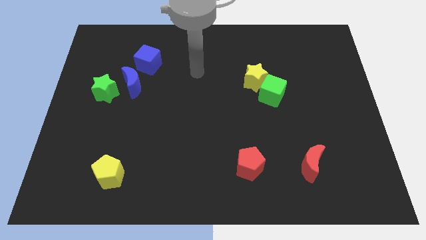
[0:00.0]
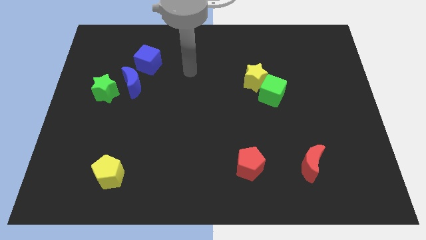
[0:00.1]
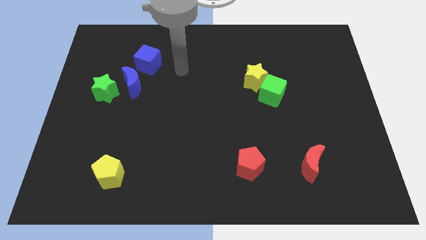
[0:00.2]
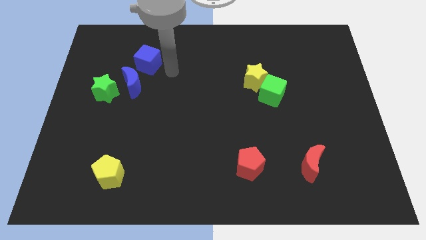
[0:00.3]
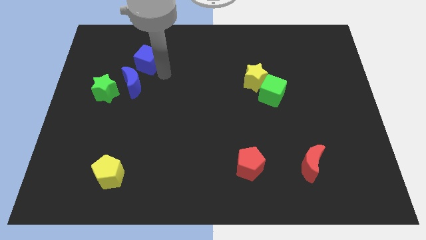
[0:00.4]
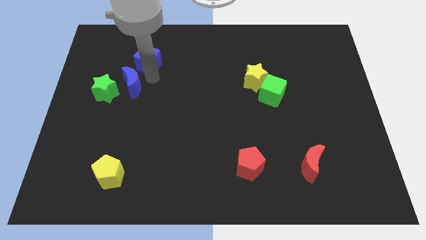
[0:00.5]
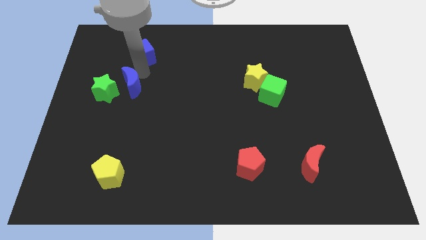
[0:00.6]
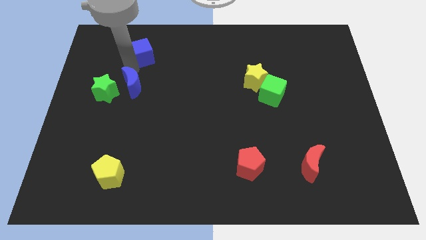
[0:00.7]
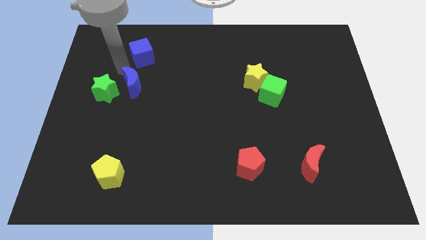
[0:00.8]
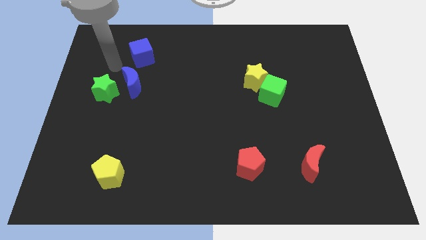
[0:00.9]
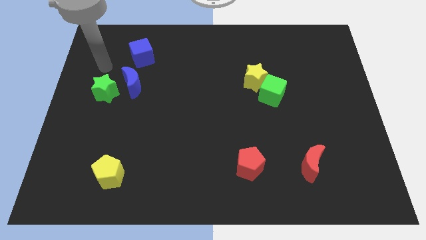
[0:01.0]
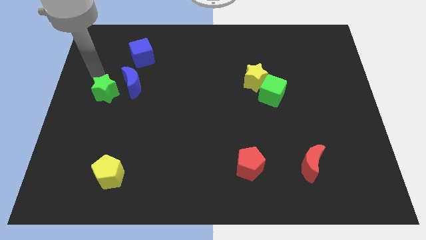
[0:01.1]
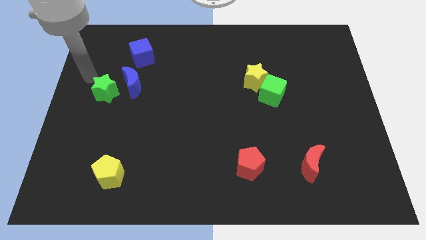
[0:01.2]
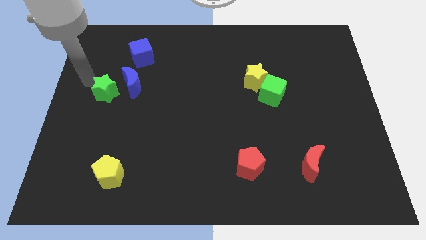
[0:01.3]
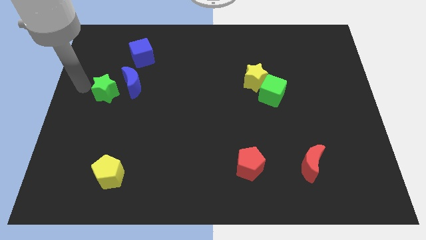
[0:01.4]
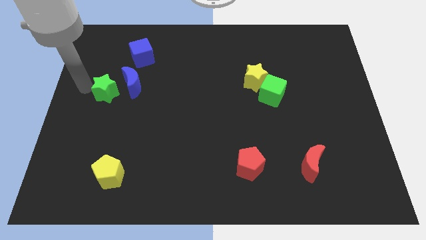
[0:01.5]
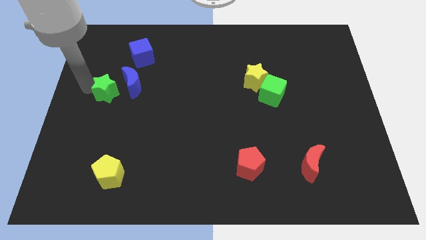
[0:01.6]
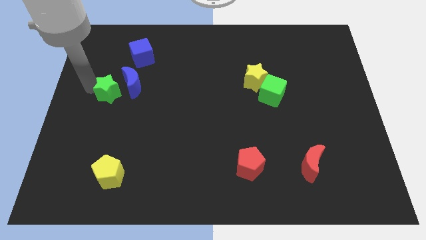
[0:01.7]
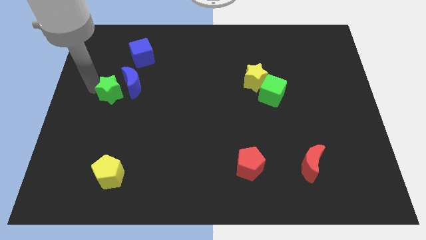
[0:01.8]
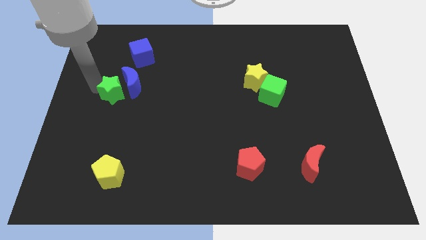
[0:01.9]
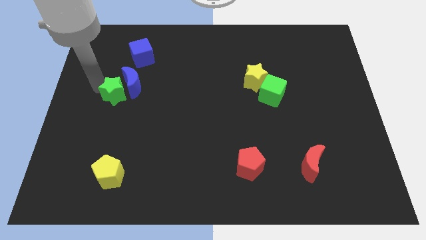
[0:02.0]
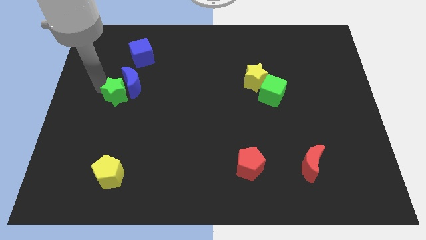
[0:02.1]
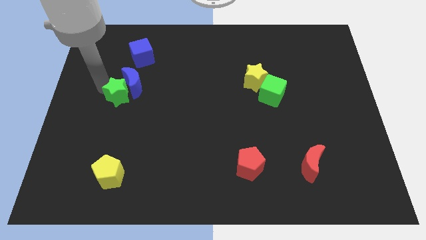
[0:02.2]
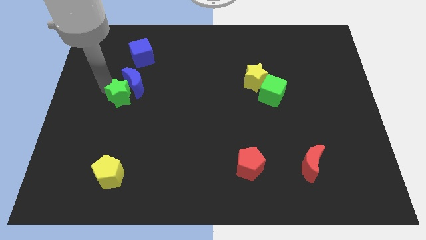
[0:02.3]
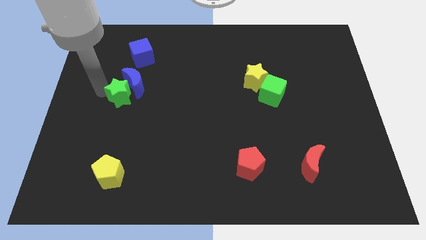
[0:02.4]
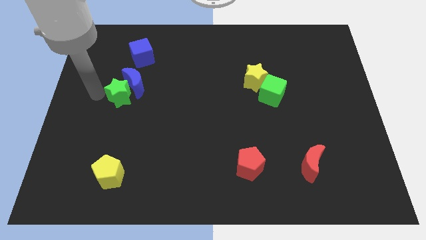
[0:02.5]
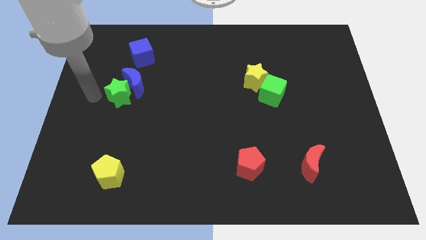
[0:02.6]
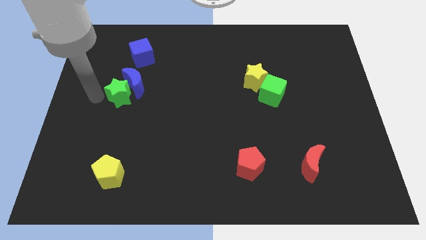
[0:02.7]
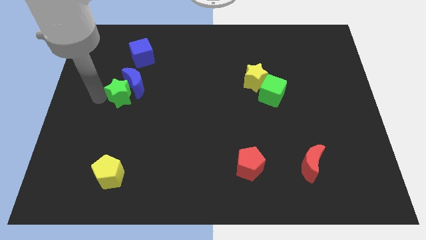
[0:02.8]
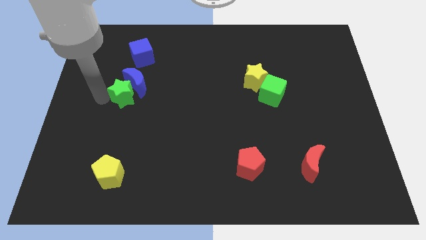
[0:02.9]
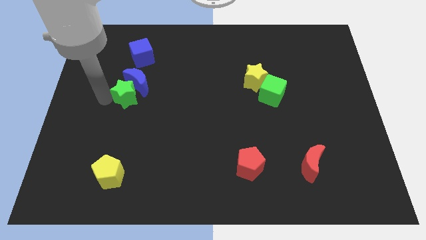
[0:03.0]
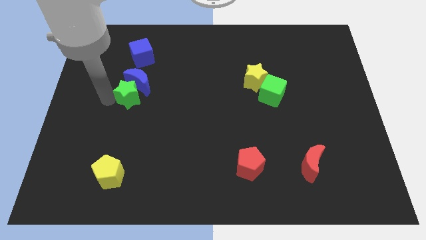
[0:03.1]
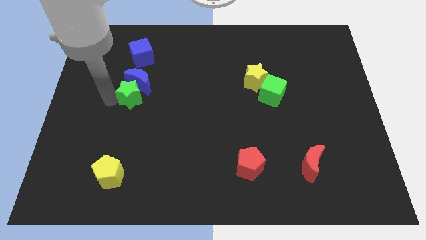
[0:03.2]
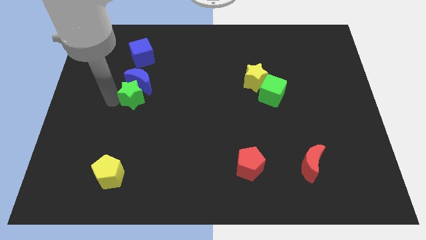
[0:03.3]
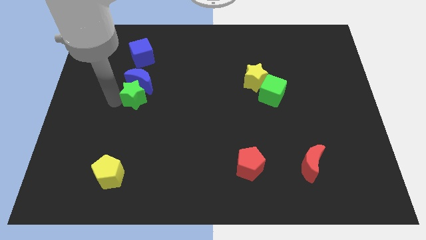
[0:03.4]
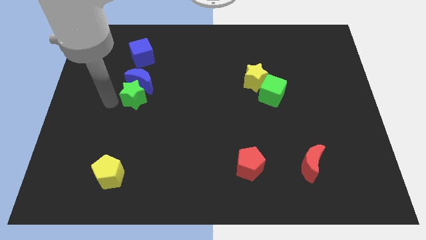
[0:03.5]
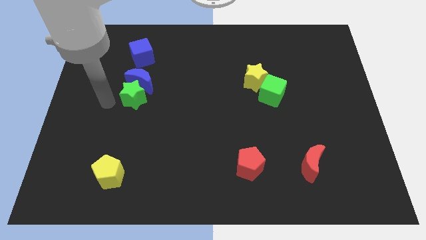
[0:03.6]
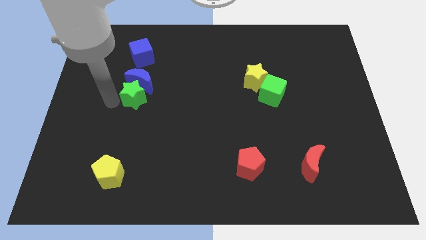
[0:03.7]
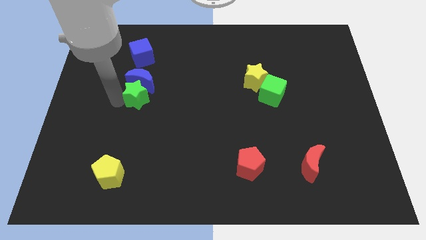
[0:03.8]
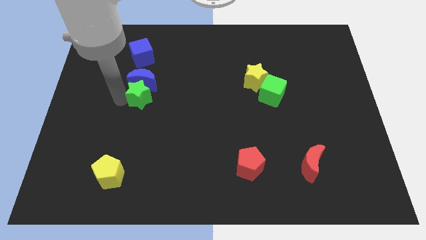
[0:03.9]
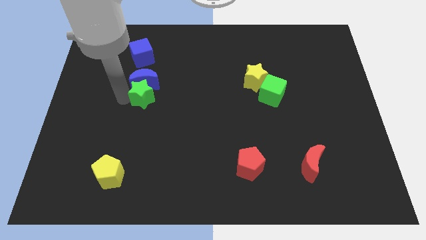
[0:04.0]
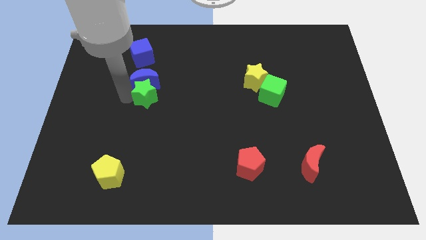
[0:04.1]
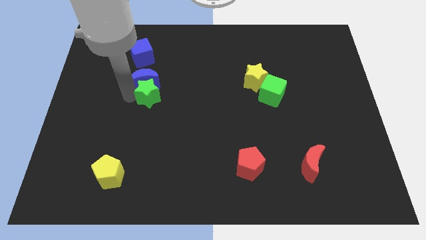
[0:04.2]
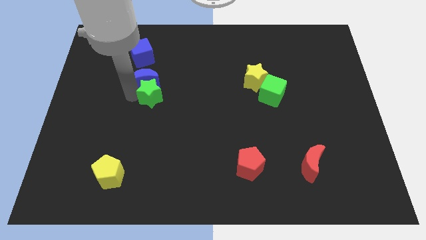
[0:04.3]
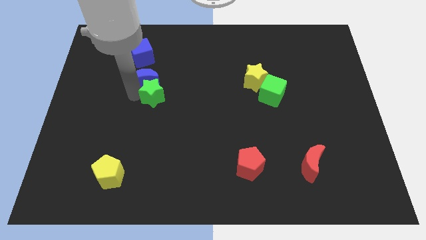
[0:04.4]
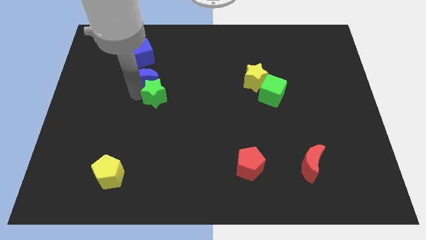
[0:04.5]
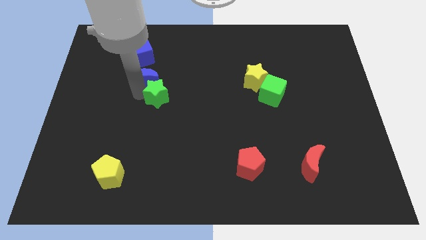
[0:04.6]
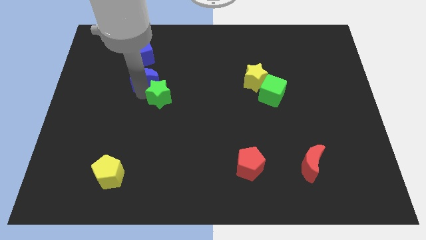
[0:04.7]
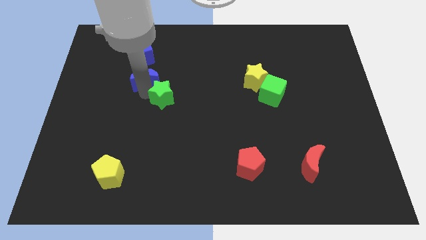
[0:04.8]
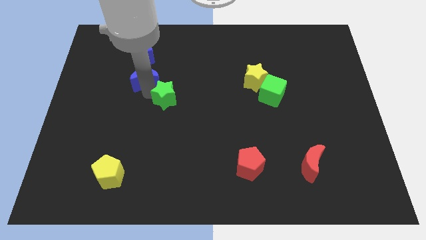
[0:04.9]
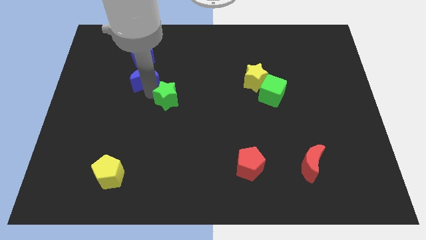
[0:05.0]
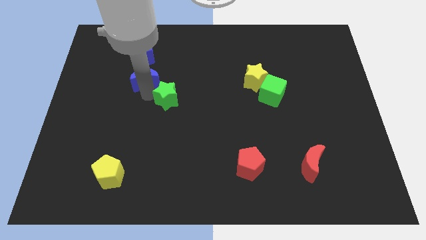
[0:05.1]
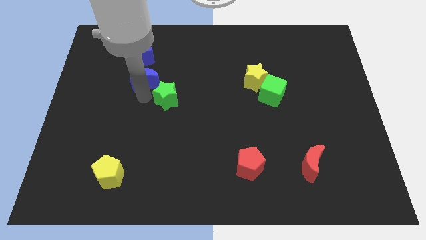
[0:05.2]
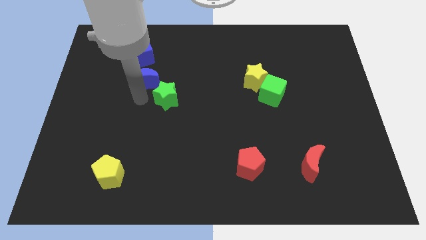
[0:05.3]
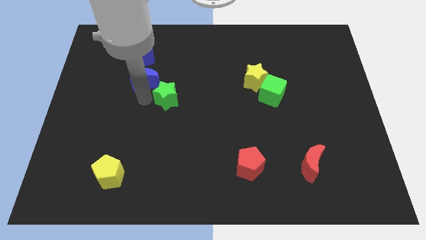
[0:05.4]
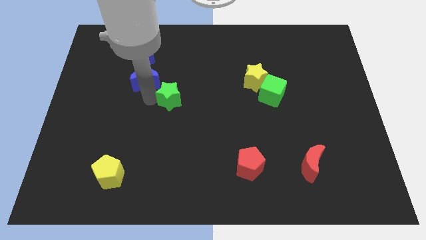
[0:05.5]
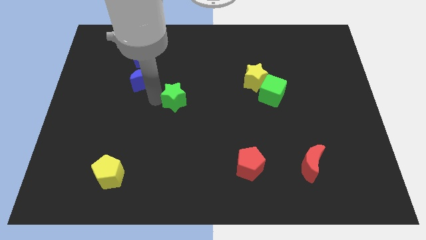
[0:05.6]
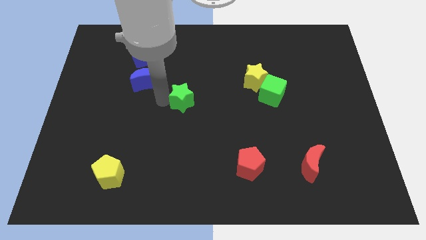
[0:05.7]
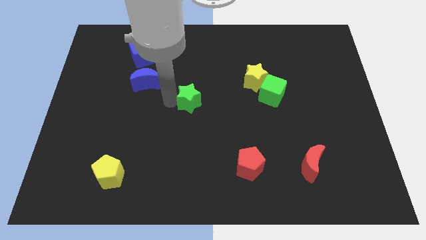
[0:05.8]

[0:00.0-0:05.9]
move the green star to the right

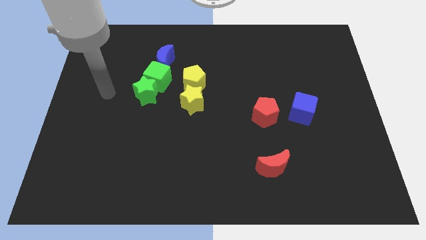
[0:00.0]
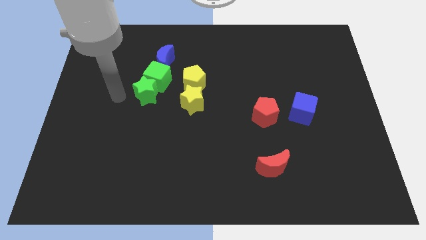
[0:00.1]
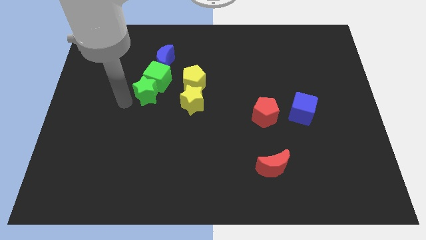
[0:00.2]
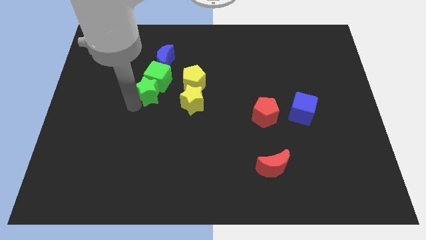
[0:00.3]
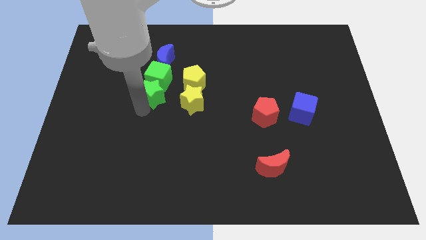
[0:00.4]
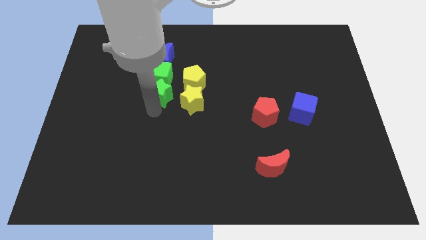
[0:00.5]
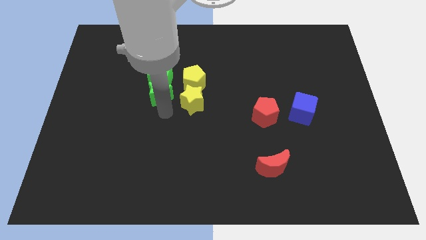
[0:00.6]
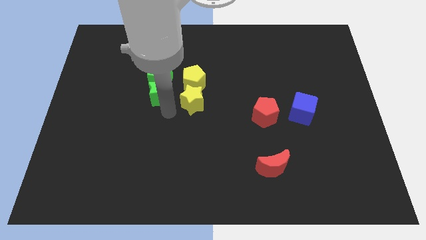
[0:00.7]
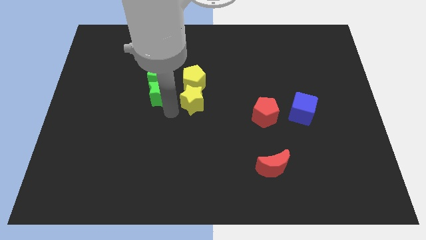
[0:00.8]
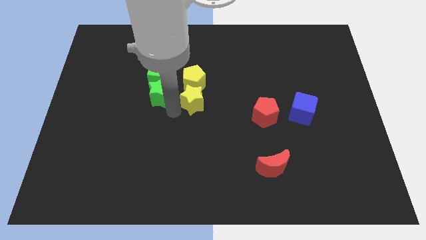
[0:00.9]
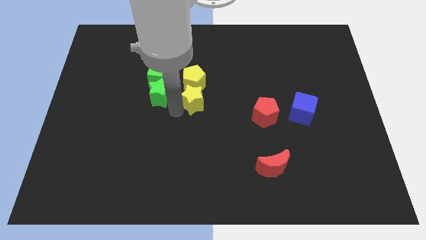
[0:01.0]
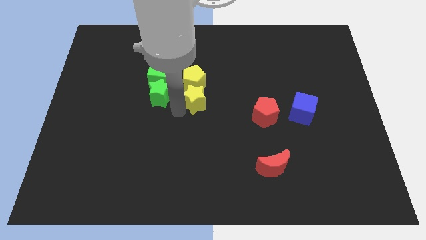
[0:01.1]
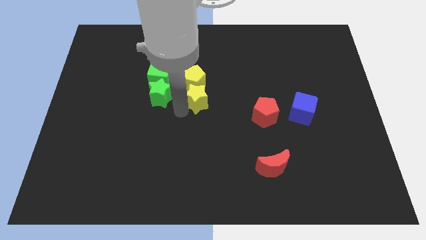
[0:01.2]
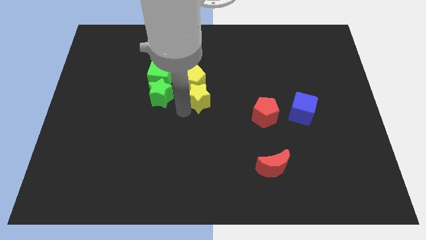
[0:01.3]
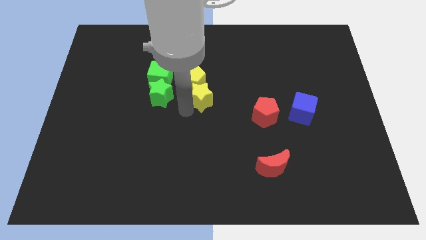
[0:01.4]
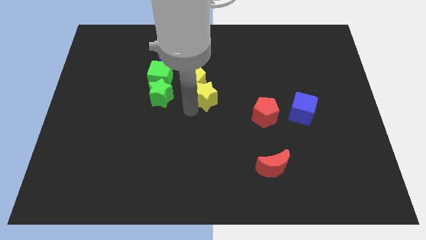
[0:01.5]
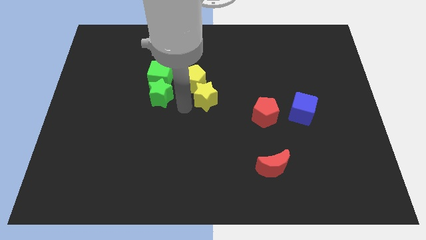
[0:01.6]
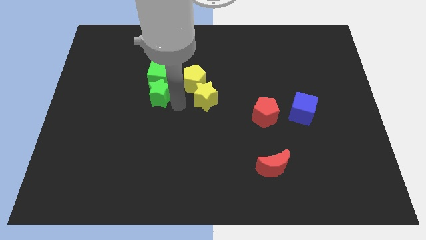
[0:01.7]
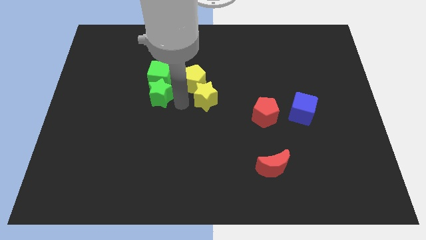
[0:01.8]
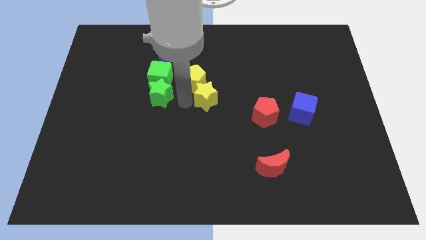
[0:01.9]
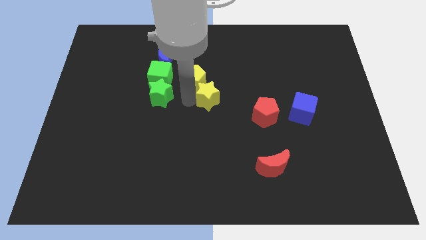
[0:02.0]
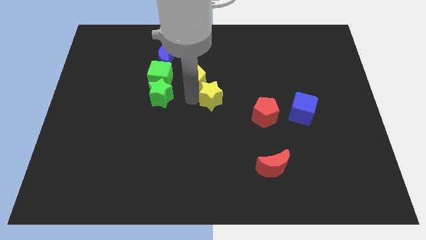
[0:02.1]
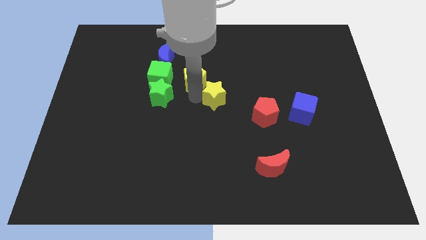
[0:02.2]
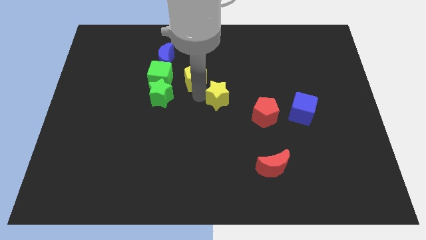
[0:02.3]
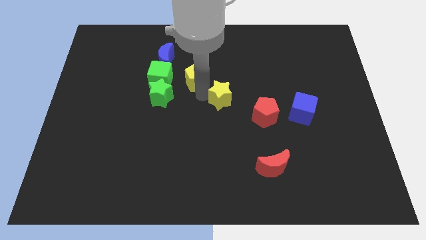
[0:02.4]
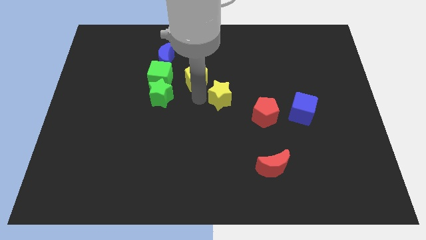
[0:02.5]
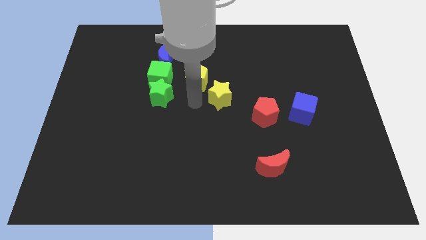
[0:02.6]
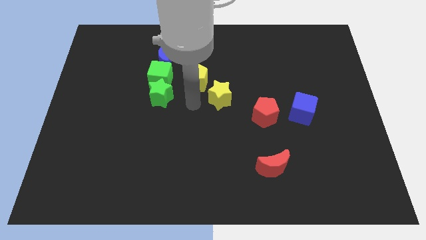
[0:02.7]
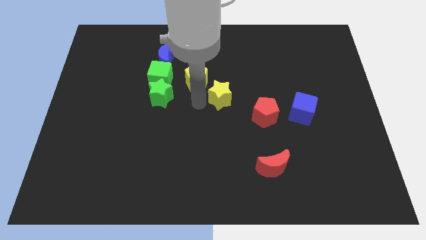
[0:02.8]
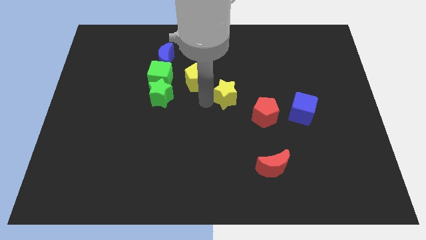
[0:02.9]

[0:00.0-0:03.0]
move the yellow star slightly to the right
